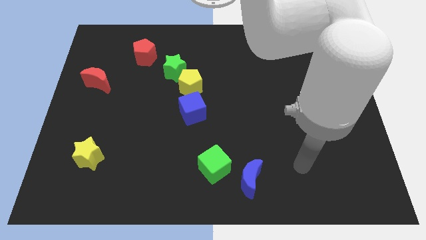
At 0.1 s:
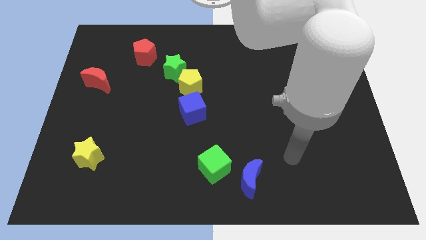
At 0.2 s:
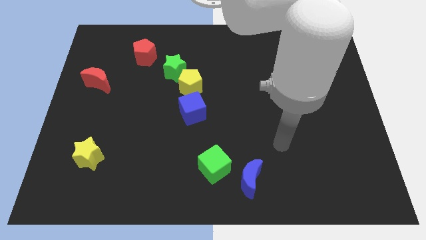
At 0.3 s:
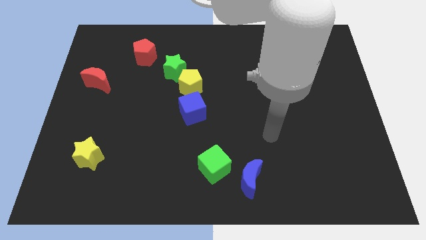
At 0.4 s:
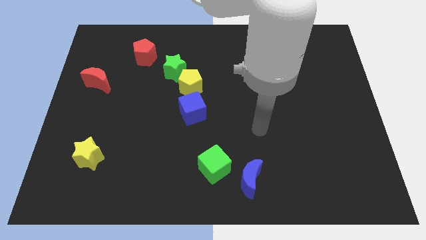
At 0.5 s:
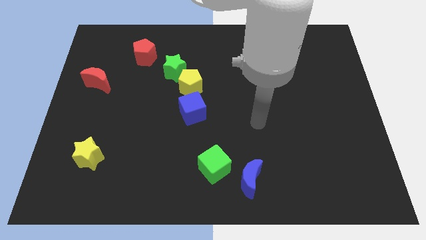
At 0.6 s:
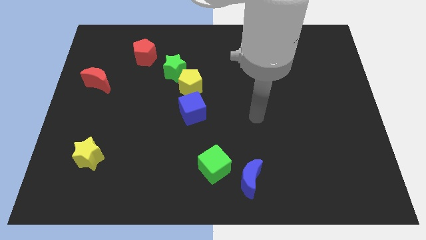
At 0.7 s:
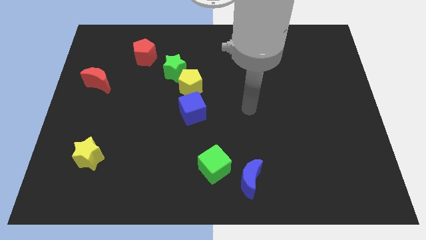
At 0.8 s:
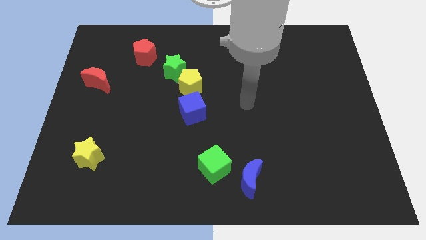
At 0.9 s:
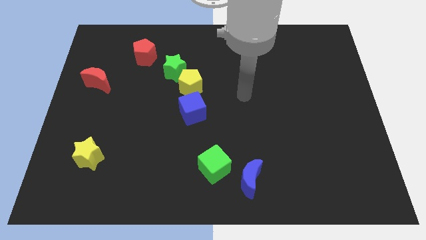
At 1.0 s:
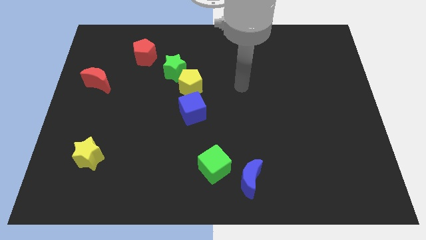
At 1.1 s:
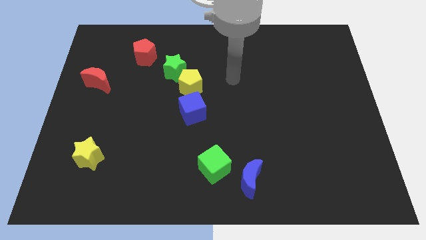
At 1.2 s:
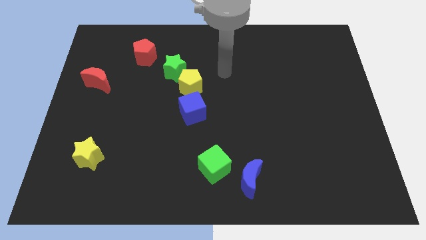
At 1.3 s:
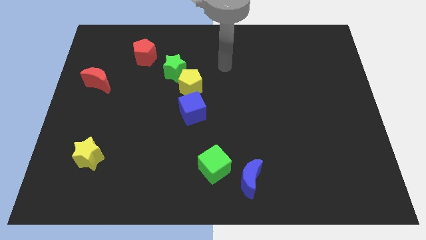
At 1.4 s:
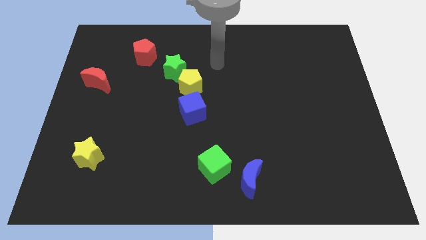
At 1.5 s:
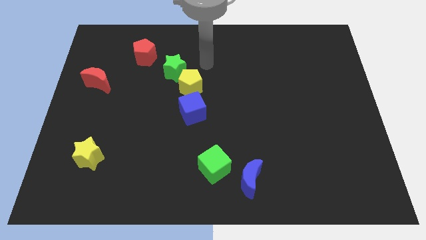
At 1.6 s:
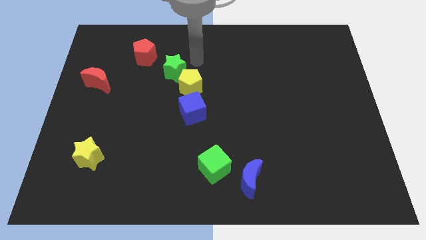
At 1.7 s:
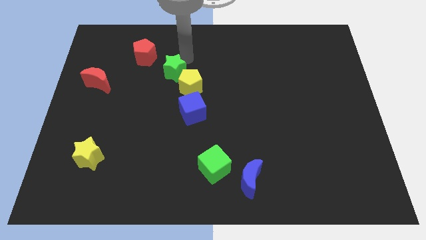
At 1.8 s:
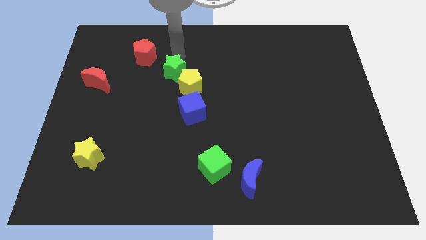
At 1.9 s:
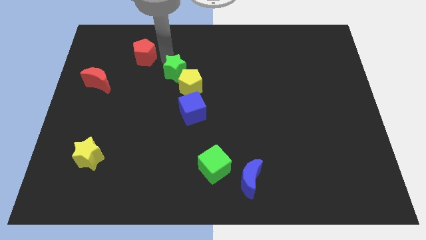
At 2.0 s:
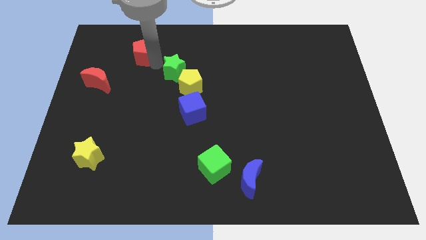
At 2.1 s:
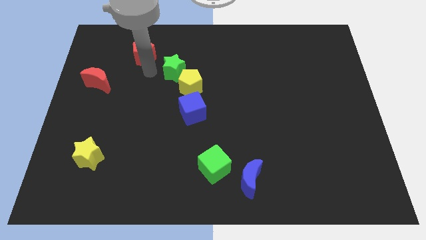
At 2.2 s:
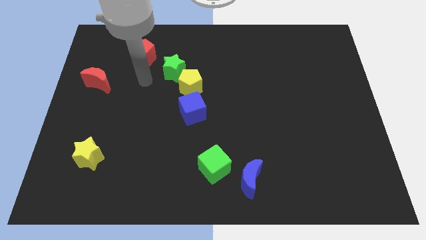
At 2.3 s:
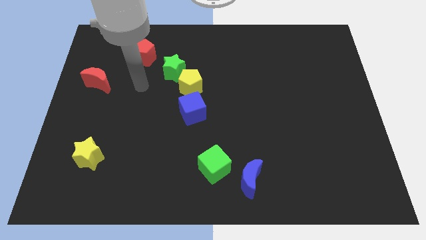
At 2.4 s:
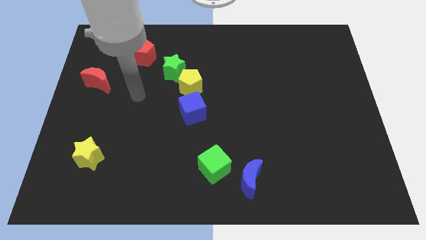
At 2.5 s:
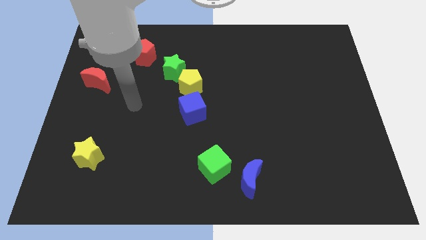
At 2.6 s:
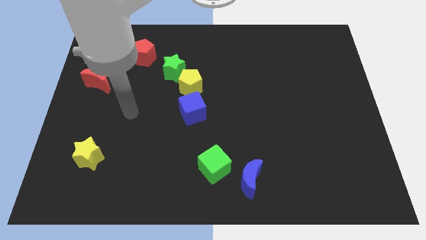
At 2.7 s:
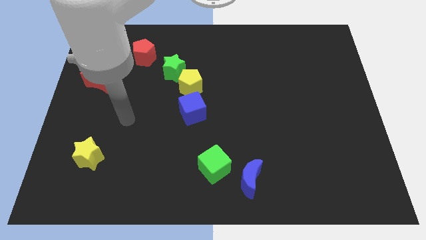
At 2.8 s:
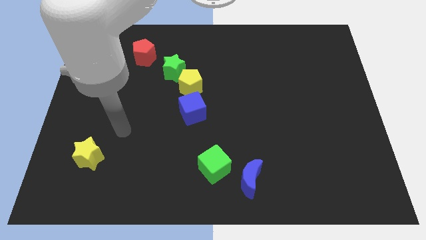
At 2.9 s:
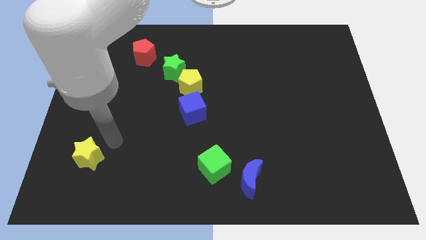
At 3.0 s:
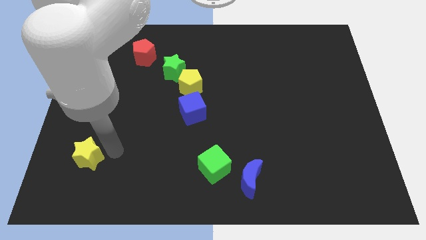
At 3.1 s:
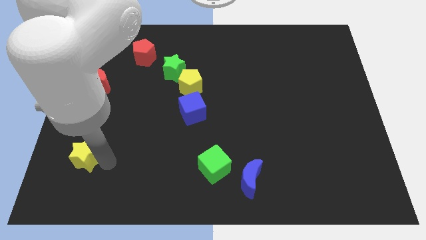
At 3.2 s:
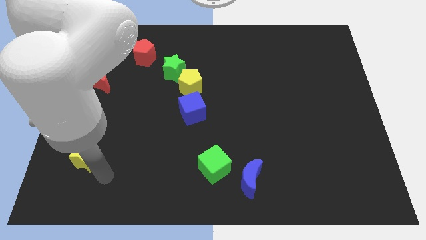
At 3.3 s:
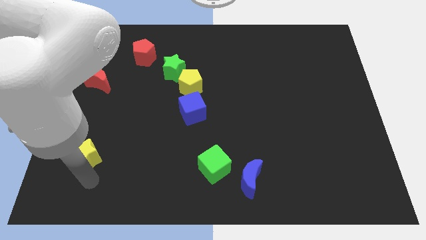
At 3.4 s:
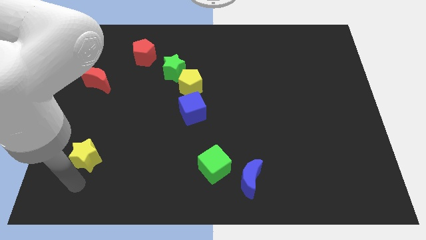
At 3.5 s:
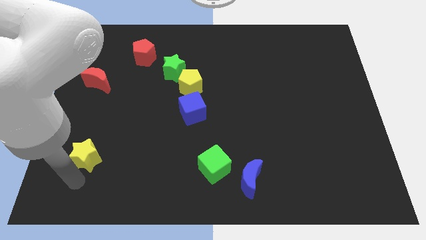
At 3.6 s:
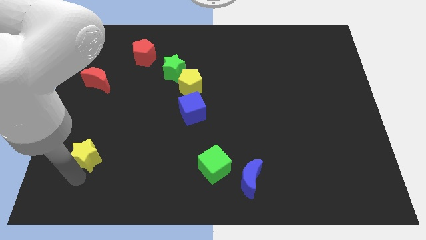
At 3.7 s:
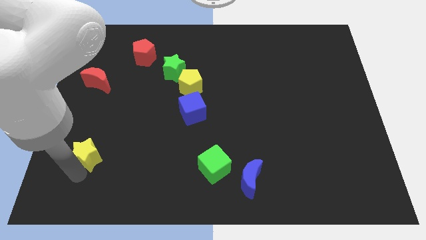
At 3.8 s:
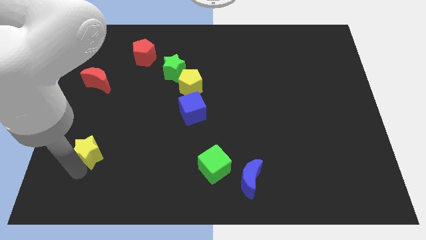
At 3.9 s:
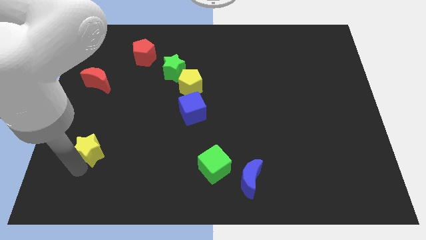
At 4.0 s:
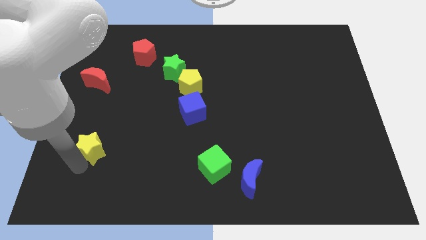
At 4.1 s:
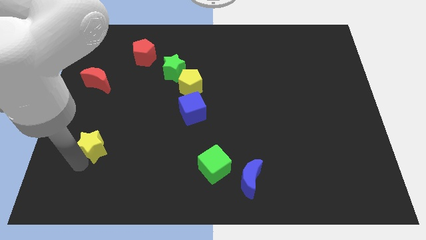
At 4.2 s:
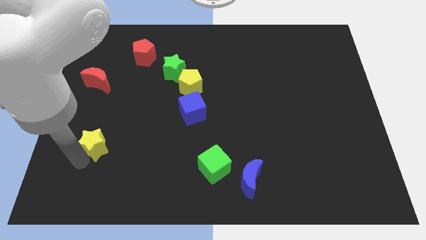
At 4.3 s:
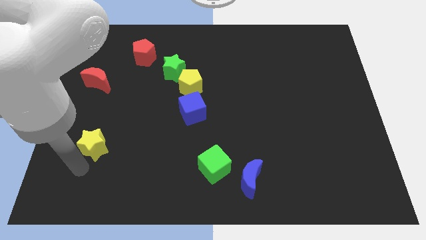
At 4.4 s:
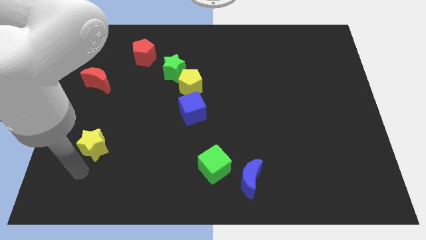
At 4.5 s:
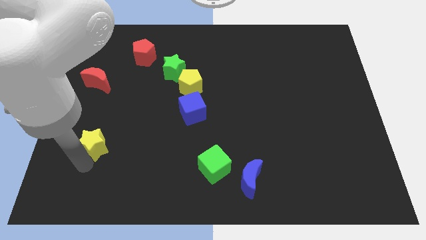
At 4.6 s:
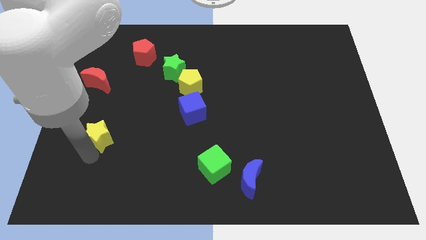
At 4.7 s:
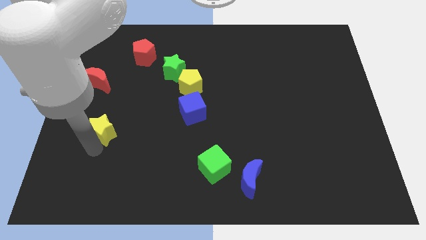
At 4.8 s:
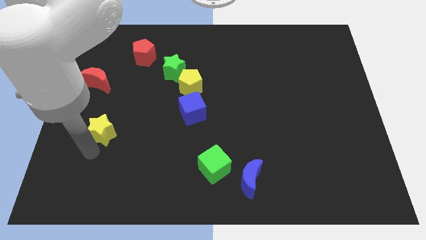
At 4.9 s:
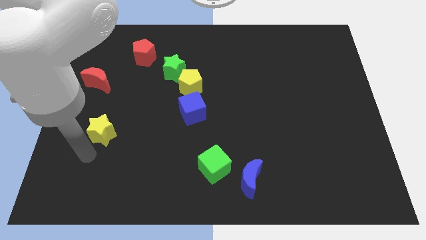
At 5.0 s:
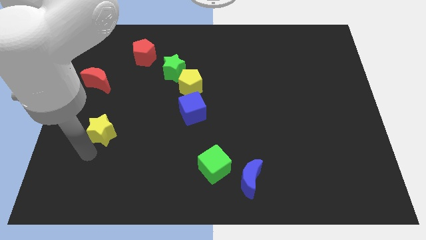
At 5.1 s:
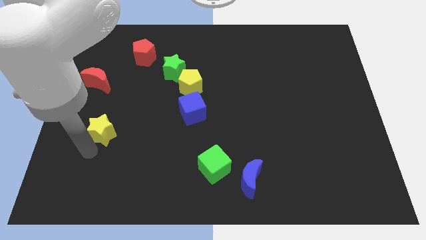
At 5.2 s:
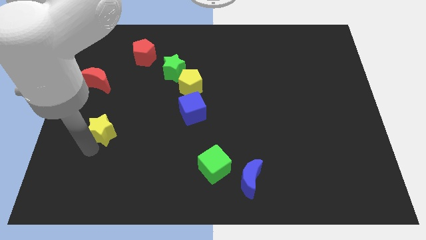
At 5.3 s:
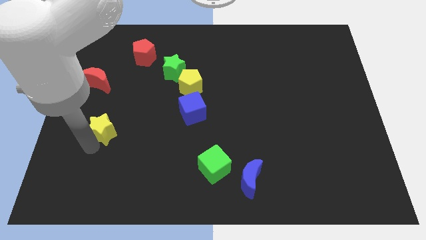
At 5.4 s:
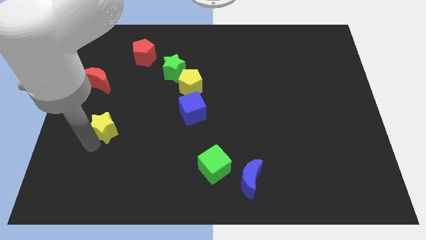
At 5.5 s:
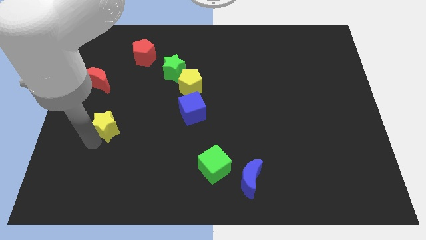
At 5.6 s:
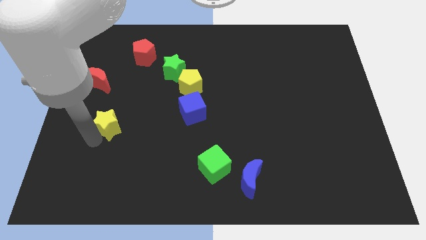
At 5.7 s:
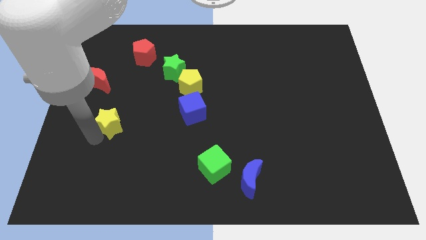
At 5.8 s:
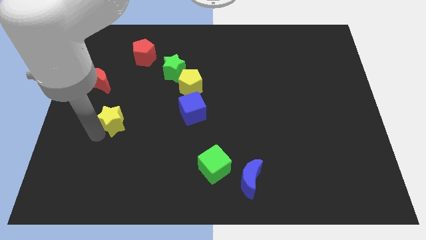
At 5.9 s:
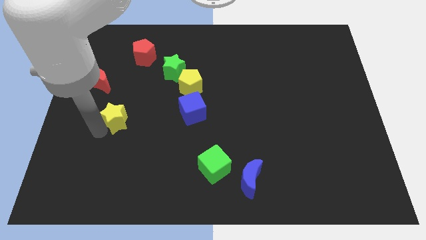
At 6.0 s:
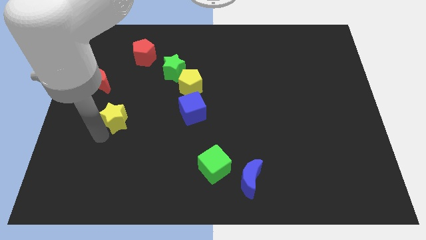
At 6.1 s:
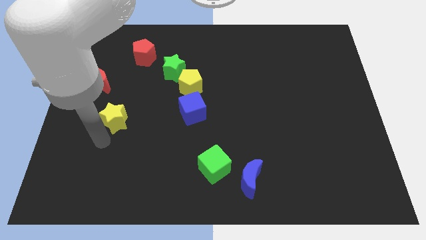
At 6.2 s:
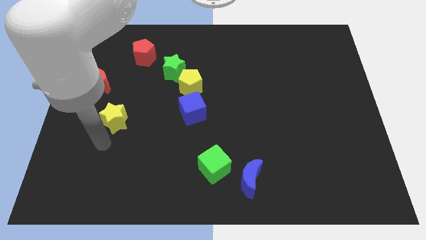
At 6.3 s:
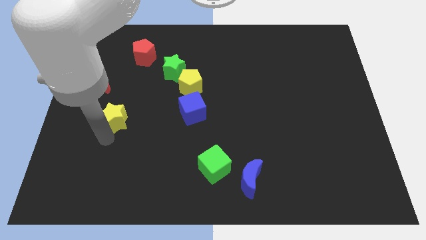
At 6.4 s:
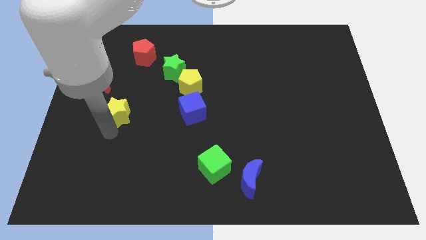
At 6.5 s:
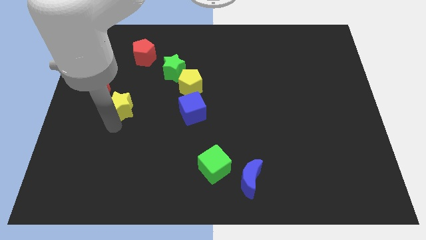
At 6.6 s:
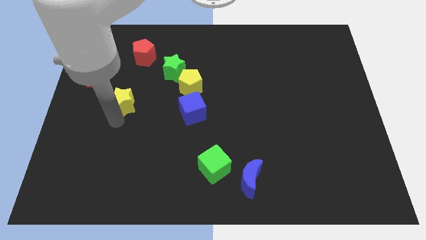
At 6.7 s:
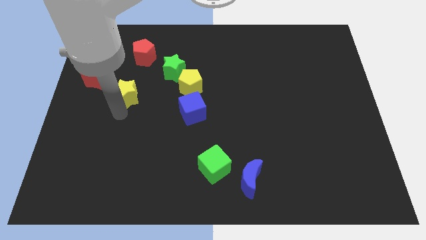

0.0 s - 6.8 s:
slide the yellow star just right of the red moon
